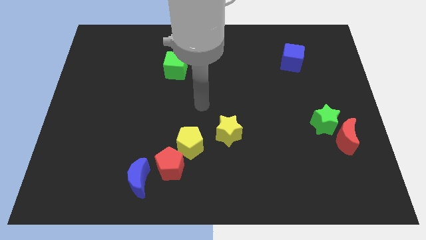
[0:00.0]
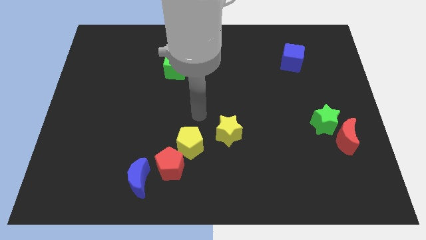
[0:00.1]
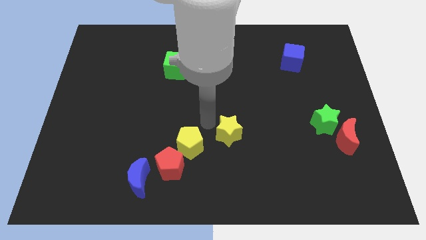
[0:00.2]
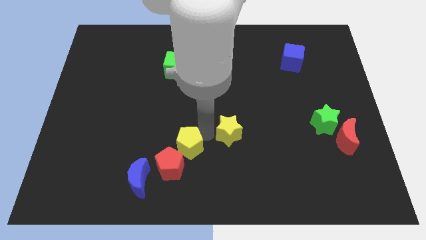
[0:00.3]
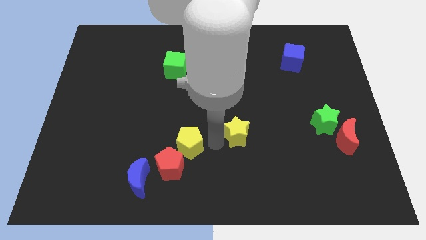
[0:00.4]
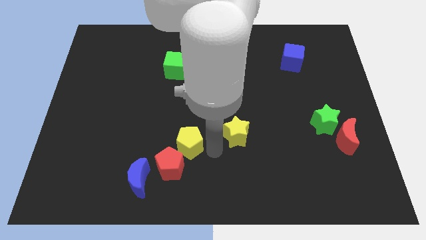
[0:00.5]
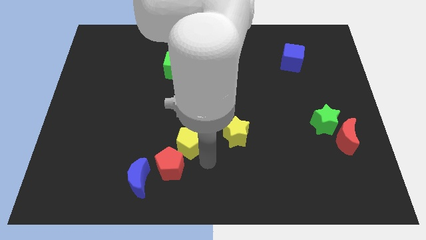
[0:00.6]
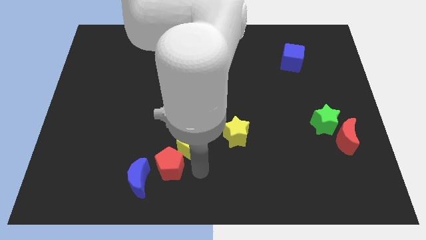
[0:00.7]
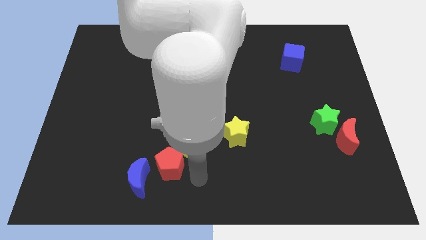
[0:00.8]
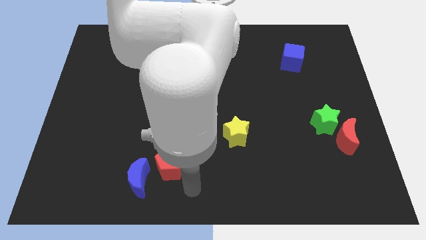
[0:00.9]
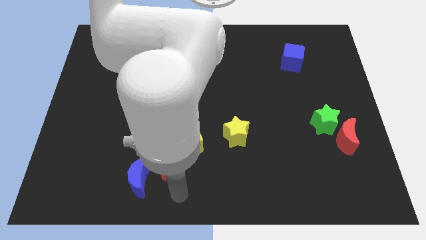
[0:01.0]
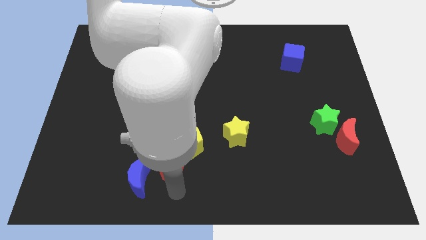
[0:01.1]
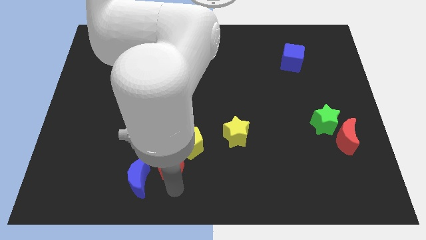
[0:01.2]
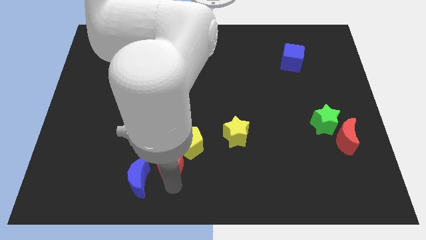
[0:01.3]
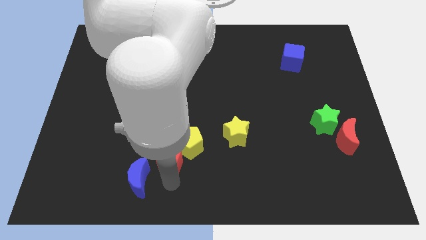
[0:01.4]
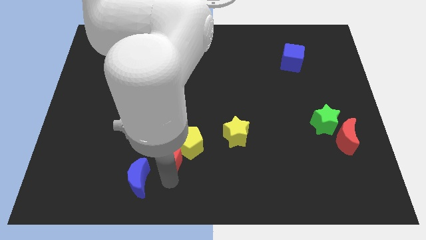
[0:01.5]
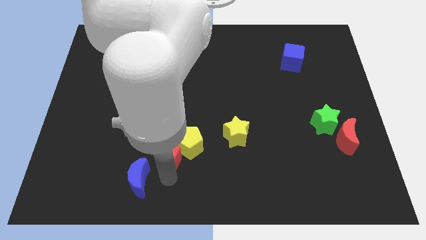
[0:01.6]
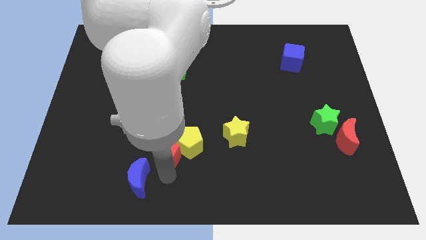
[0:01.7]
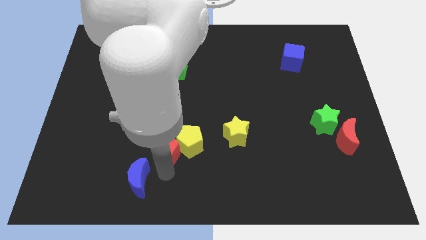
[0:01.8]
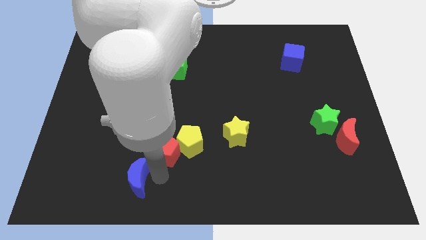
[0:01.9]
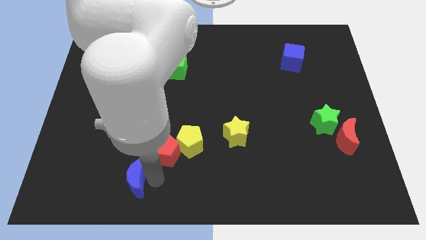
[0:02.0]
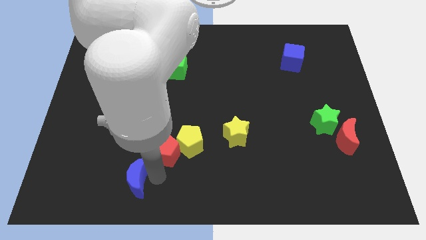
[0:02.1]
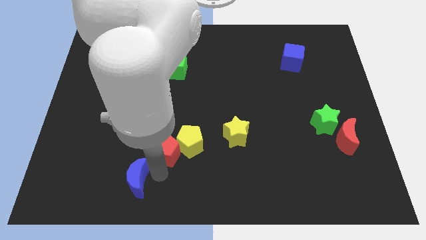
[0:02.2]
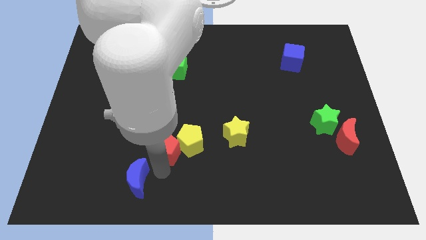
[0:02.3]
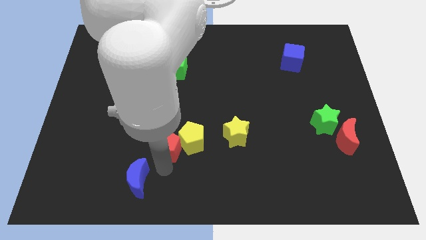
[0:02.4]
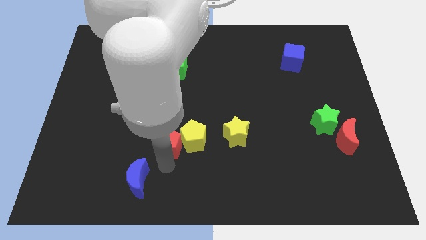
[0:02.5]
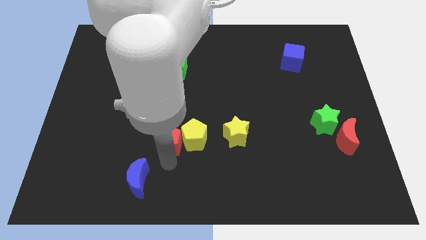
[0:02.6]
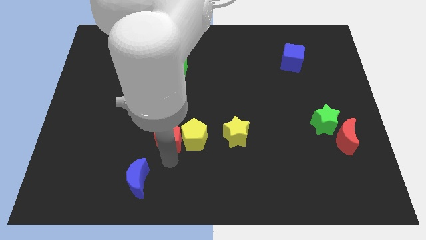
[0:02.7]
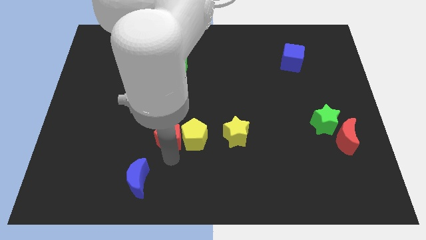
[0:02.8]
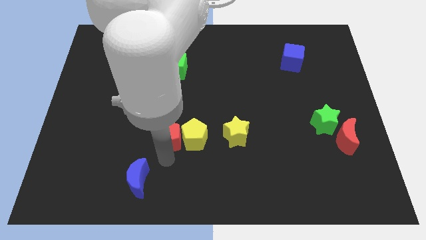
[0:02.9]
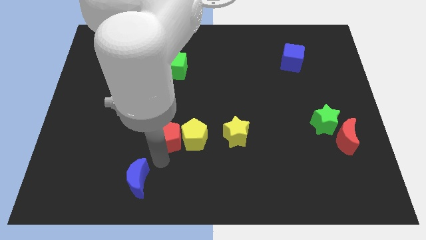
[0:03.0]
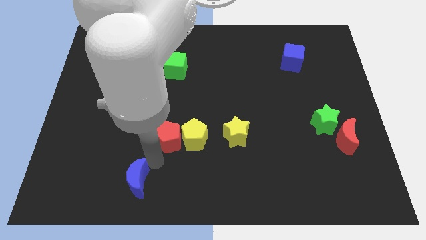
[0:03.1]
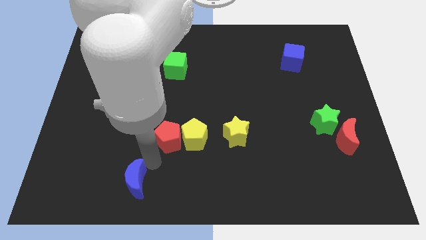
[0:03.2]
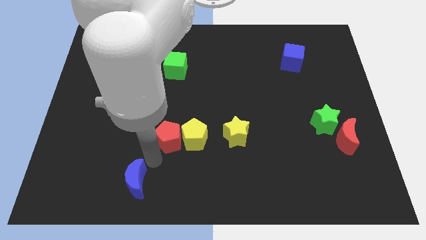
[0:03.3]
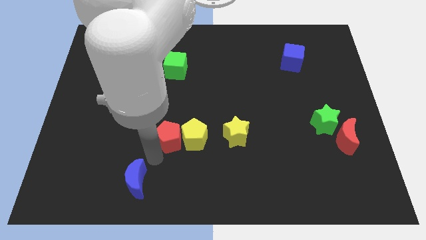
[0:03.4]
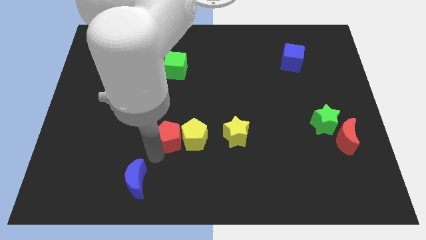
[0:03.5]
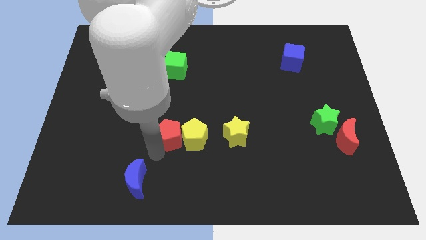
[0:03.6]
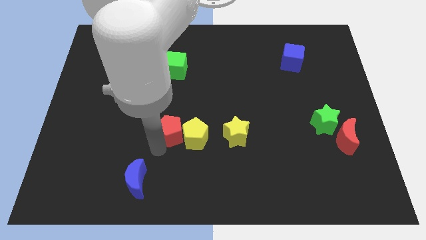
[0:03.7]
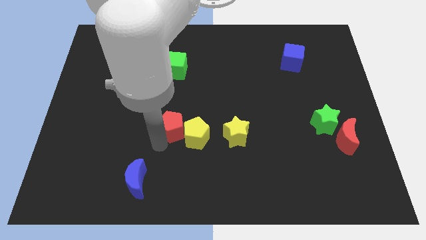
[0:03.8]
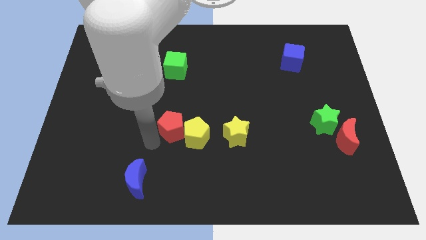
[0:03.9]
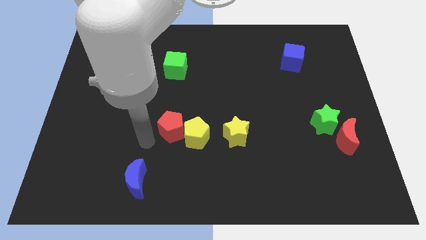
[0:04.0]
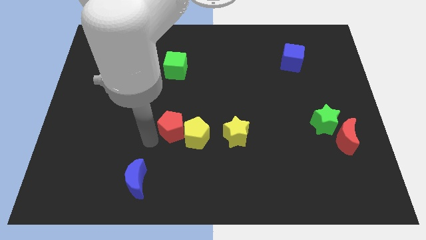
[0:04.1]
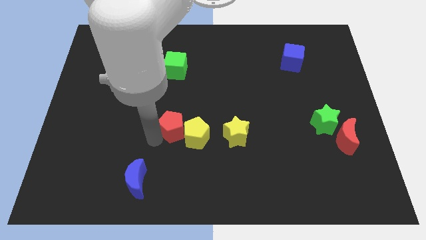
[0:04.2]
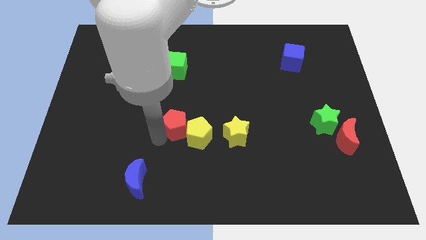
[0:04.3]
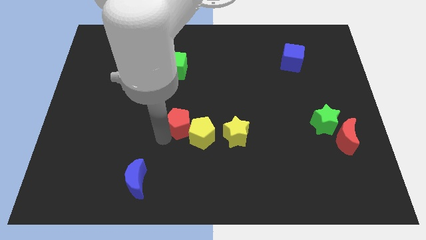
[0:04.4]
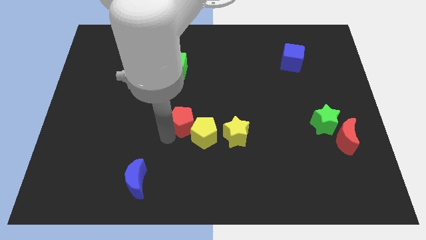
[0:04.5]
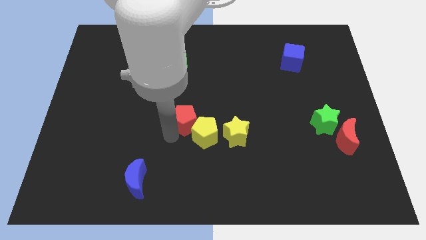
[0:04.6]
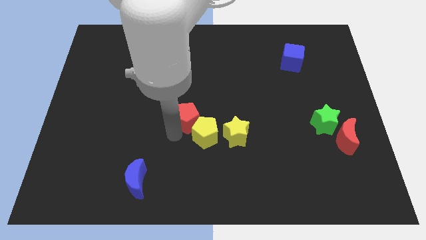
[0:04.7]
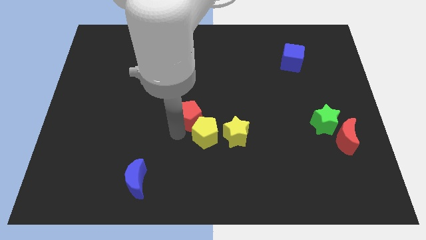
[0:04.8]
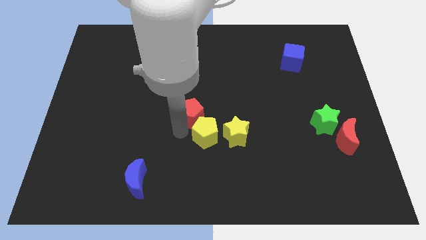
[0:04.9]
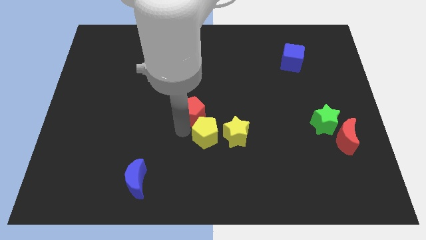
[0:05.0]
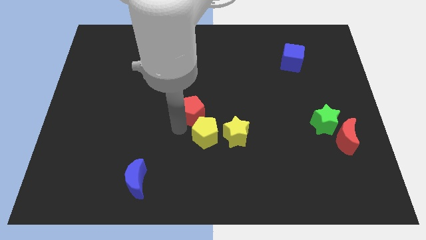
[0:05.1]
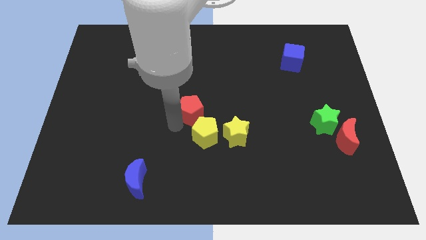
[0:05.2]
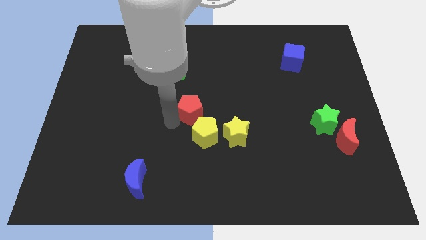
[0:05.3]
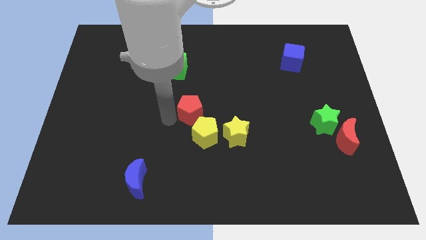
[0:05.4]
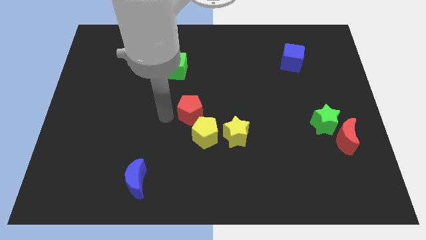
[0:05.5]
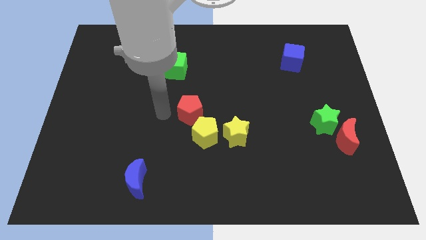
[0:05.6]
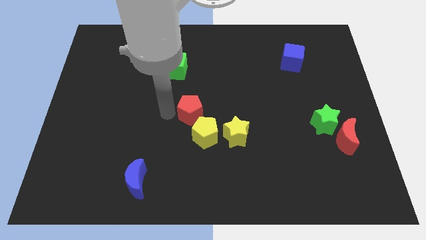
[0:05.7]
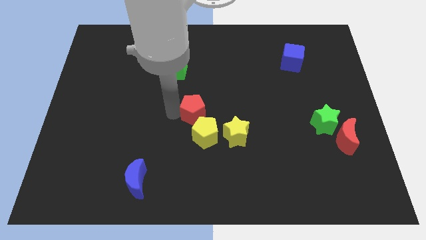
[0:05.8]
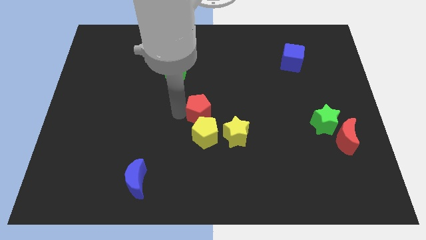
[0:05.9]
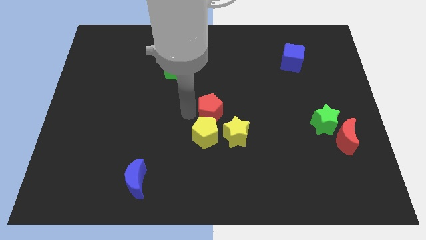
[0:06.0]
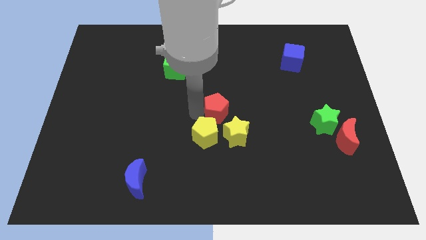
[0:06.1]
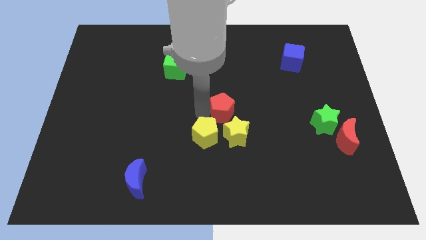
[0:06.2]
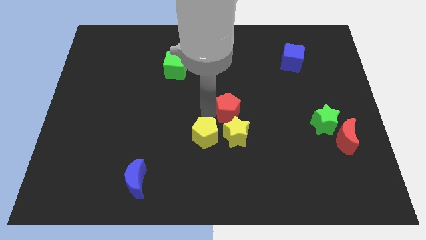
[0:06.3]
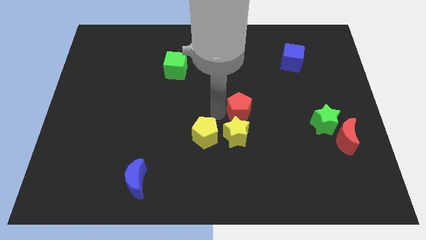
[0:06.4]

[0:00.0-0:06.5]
move the red pentagon up and right

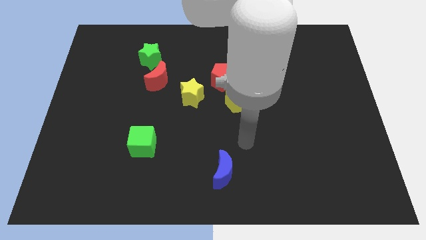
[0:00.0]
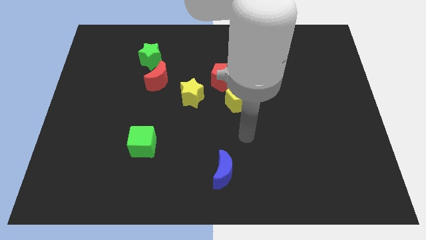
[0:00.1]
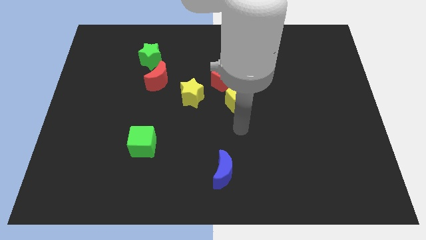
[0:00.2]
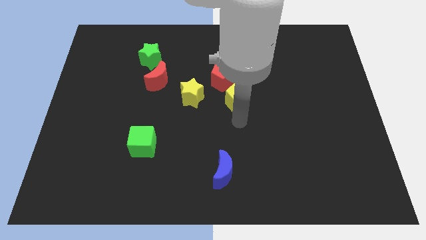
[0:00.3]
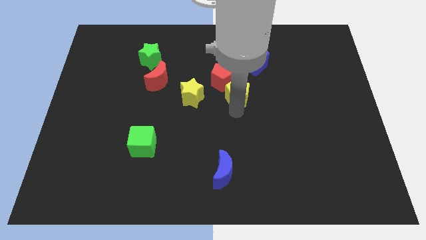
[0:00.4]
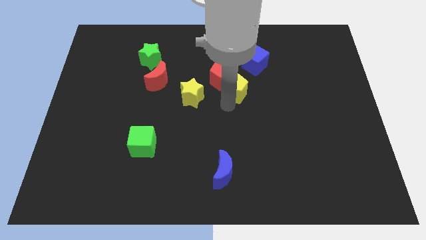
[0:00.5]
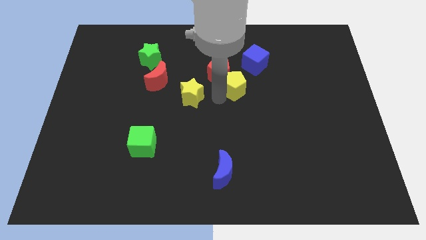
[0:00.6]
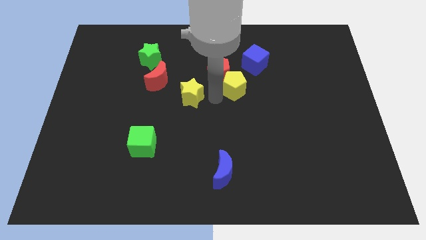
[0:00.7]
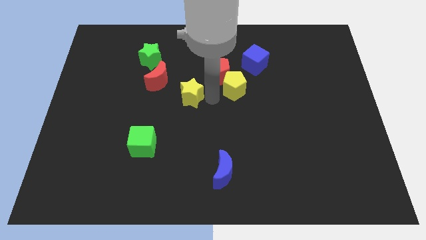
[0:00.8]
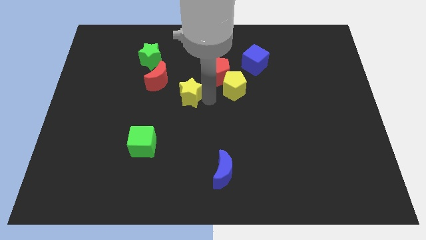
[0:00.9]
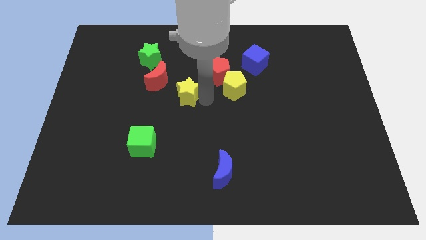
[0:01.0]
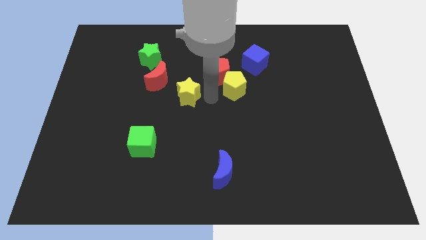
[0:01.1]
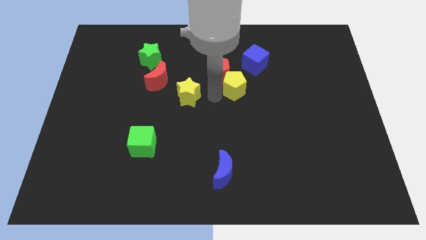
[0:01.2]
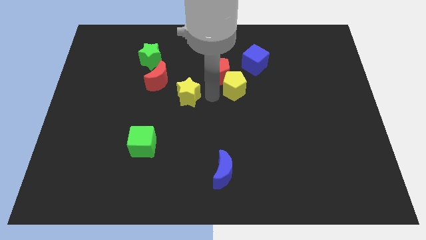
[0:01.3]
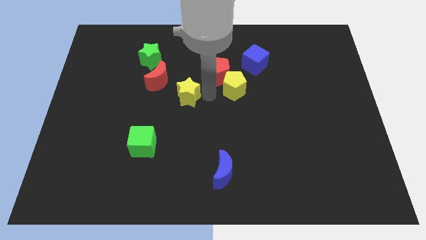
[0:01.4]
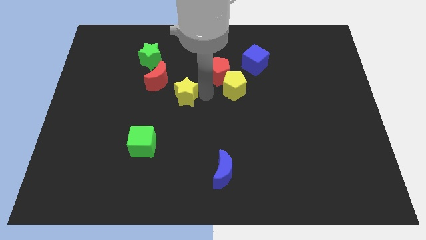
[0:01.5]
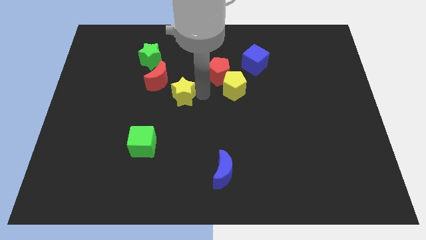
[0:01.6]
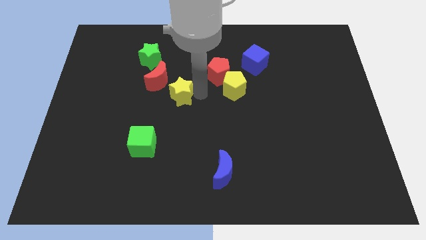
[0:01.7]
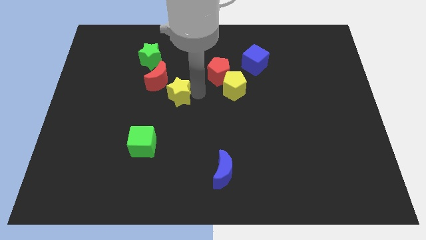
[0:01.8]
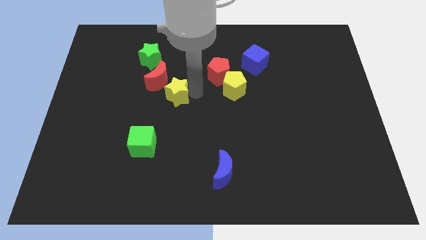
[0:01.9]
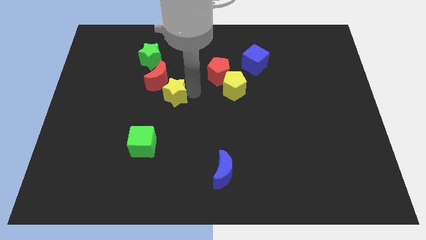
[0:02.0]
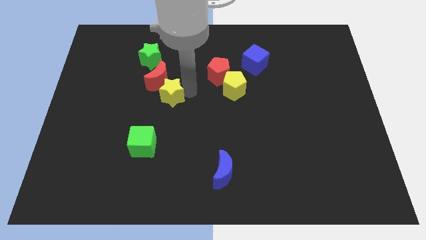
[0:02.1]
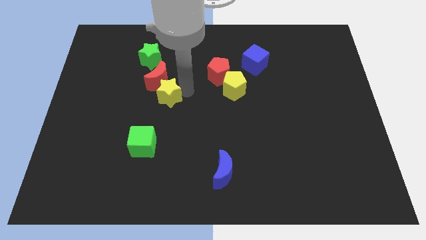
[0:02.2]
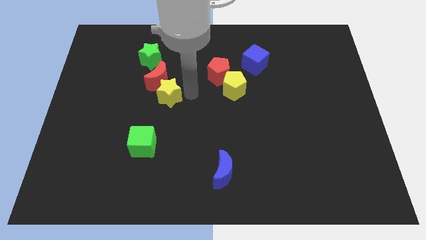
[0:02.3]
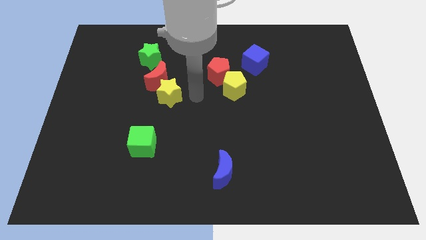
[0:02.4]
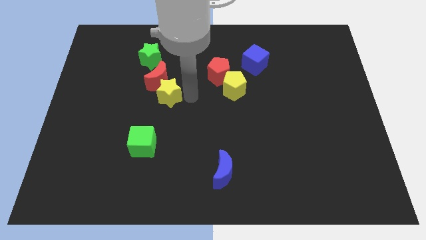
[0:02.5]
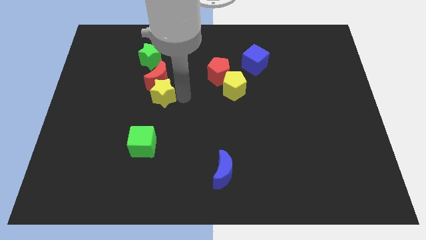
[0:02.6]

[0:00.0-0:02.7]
slide the yellow star left somewhat
